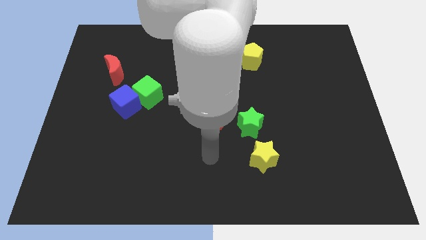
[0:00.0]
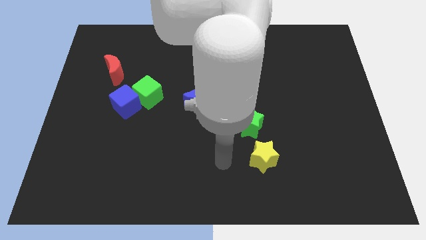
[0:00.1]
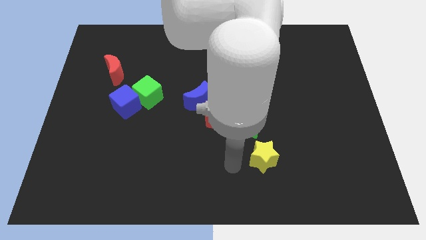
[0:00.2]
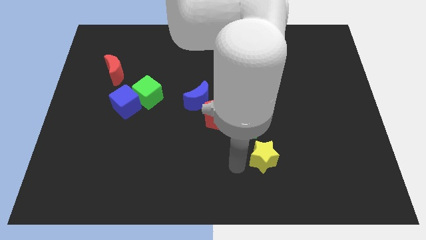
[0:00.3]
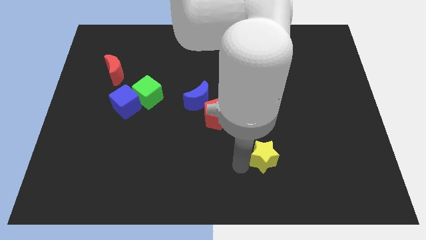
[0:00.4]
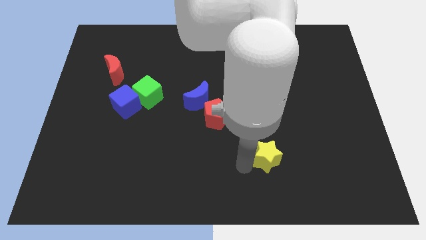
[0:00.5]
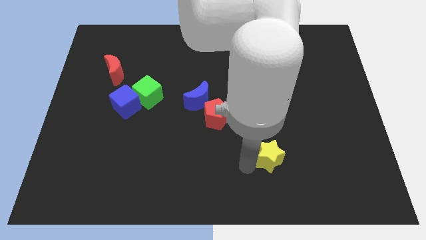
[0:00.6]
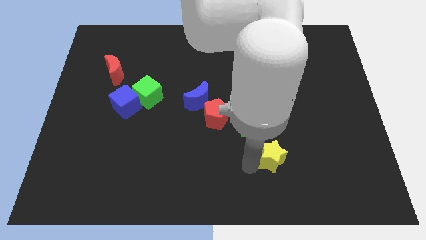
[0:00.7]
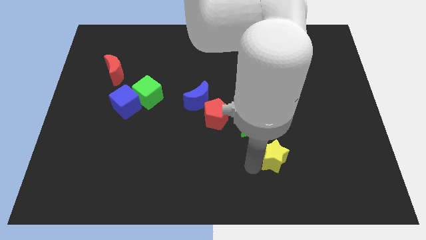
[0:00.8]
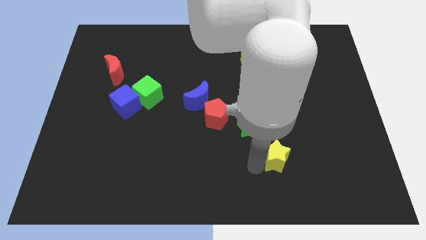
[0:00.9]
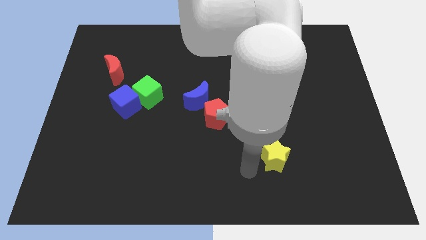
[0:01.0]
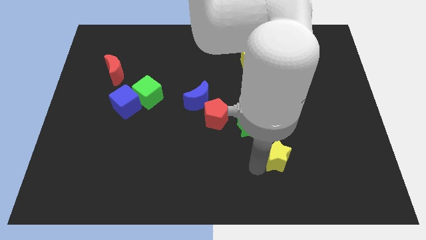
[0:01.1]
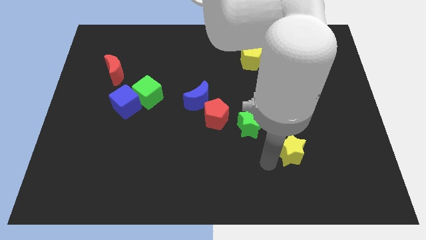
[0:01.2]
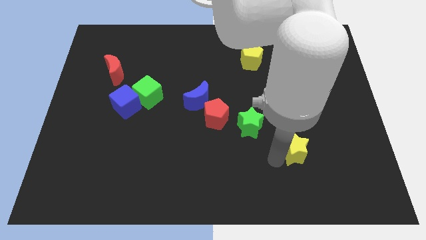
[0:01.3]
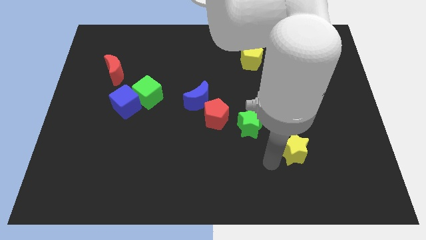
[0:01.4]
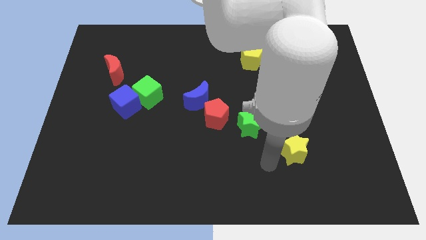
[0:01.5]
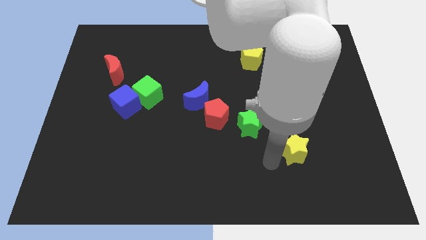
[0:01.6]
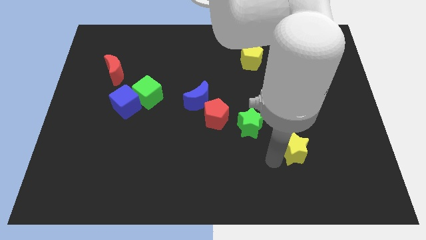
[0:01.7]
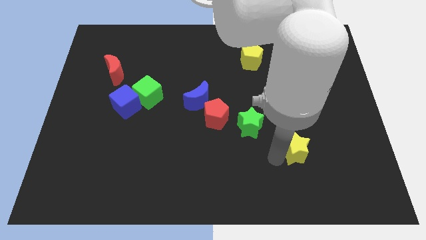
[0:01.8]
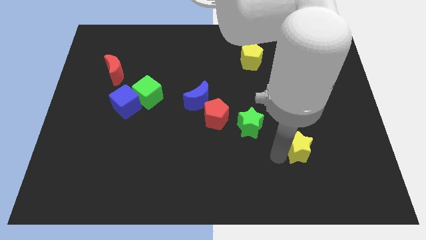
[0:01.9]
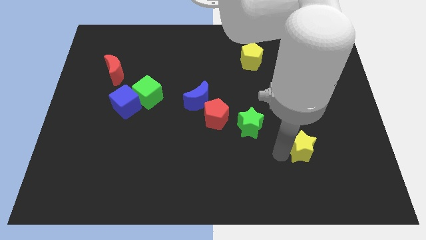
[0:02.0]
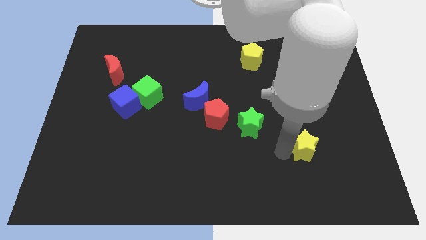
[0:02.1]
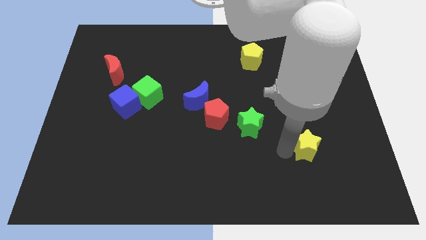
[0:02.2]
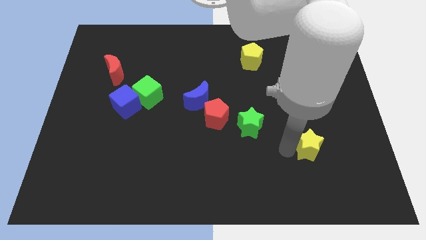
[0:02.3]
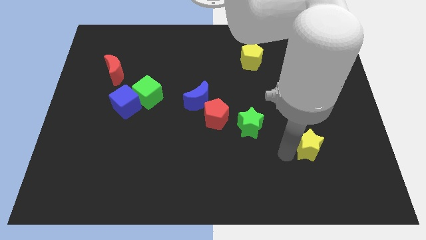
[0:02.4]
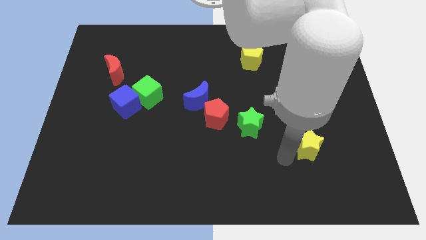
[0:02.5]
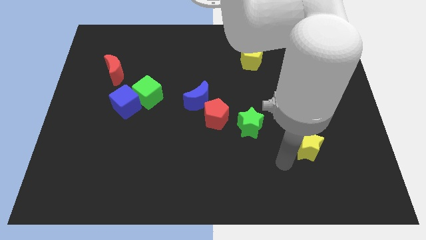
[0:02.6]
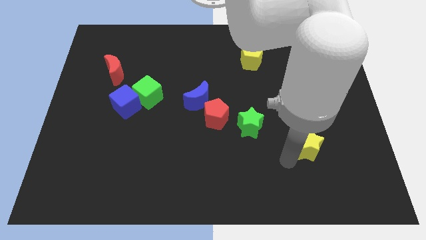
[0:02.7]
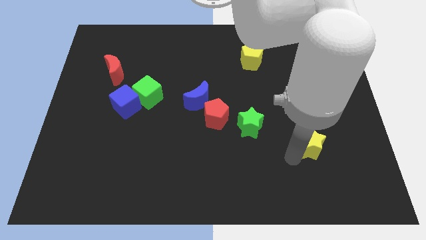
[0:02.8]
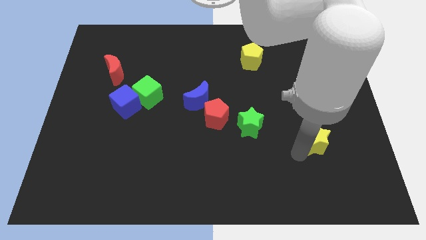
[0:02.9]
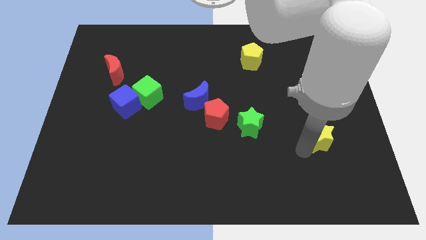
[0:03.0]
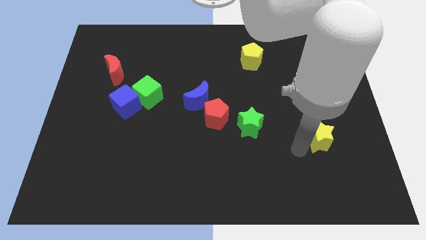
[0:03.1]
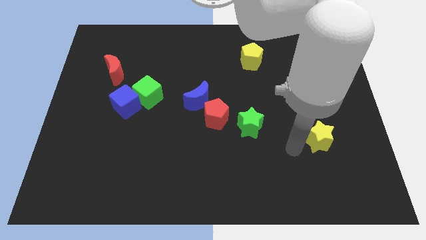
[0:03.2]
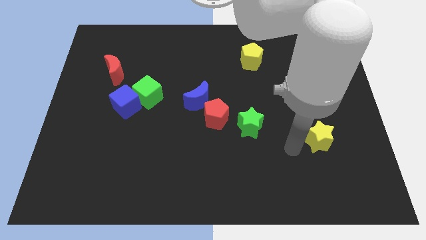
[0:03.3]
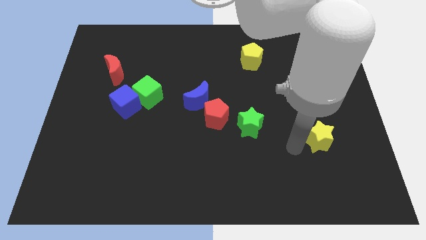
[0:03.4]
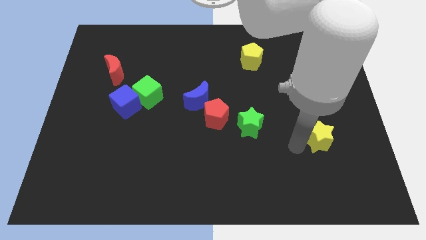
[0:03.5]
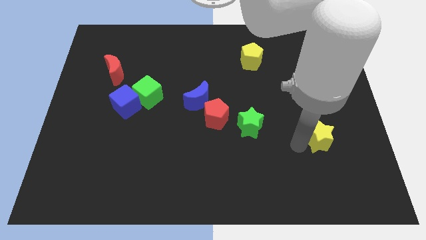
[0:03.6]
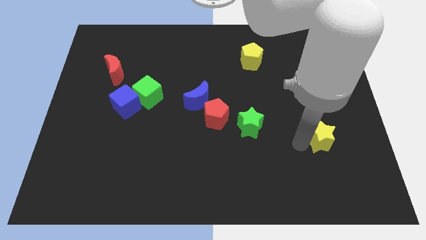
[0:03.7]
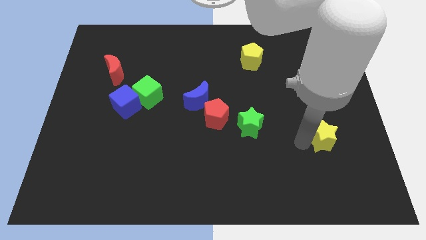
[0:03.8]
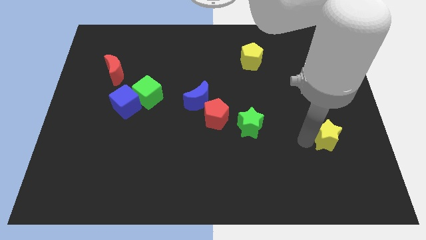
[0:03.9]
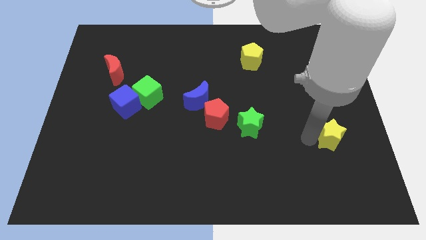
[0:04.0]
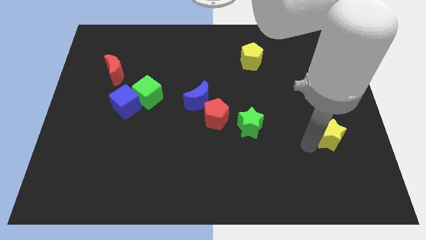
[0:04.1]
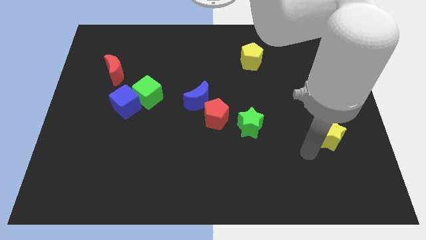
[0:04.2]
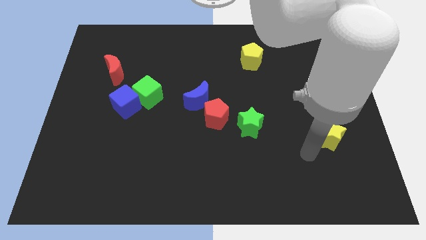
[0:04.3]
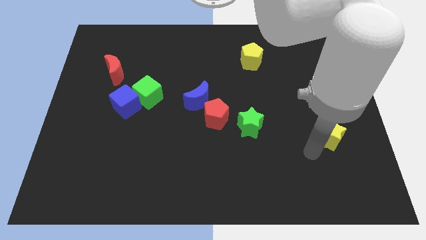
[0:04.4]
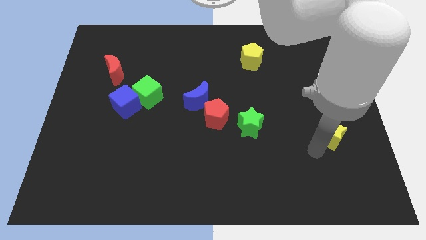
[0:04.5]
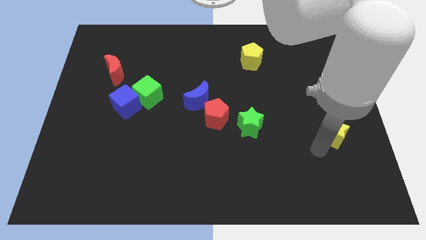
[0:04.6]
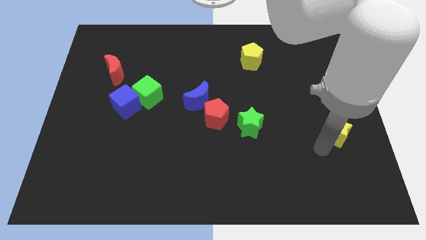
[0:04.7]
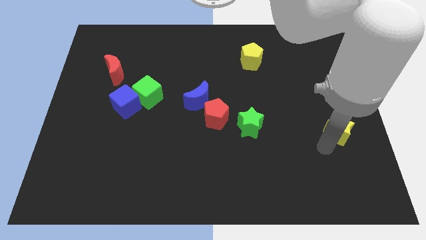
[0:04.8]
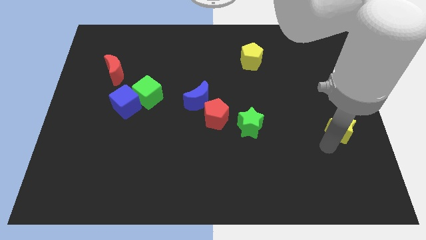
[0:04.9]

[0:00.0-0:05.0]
move the yellow star to the right side

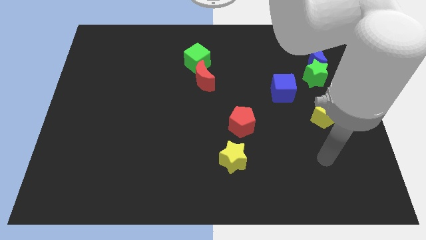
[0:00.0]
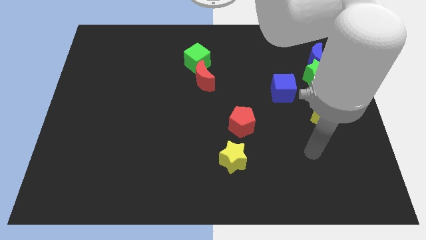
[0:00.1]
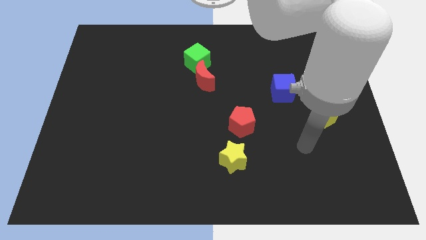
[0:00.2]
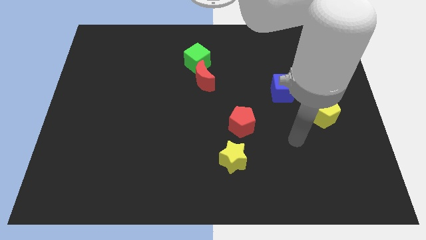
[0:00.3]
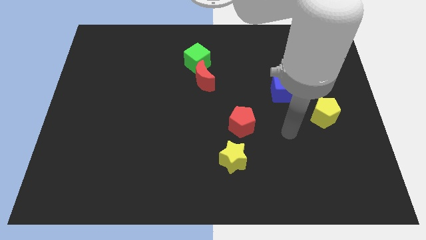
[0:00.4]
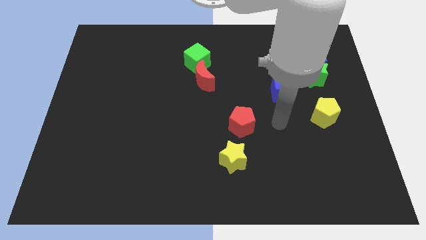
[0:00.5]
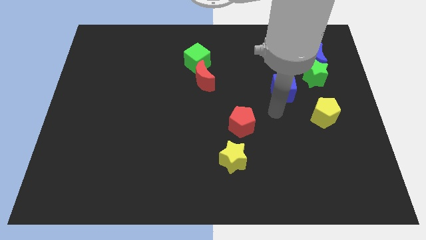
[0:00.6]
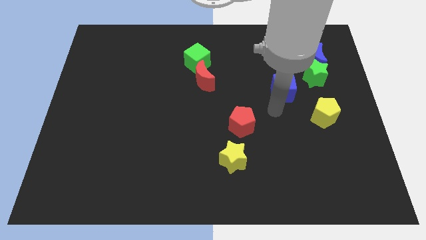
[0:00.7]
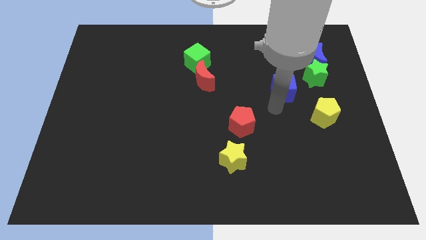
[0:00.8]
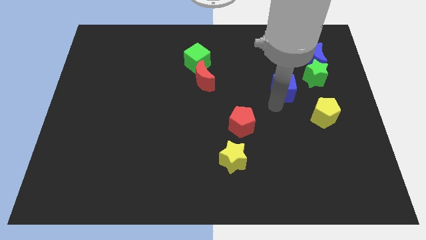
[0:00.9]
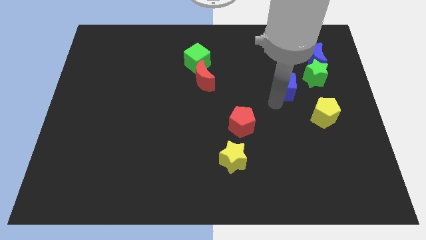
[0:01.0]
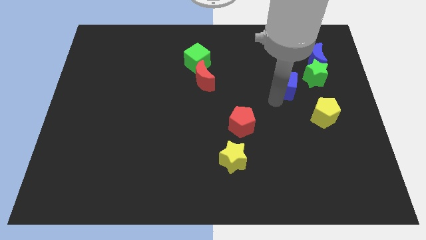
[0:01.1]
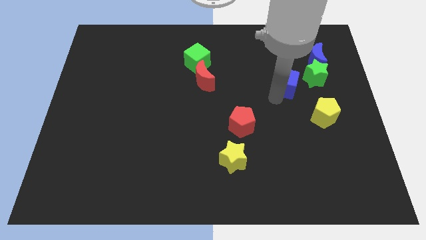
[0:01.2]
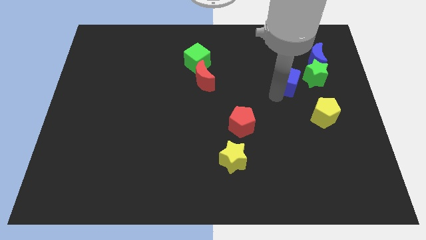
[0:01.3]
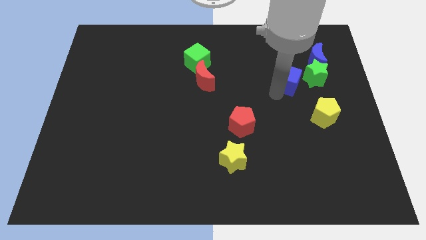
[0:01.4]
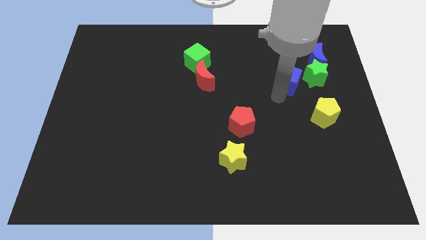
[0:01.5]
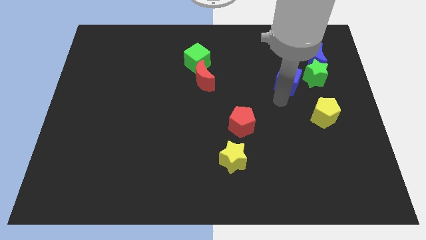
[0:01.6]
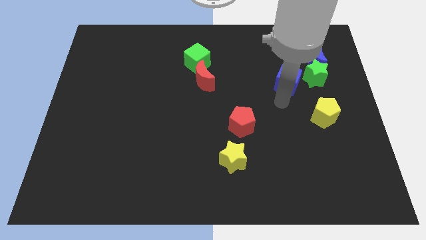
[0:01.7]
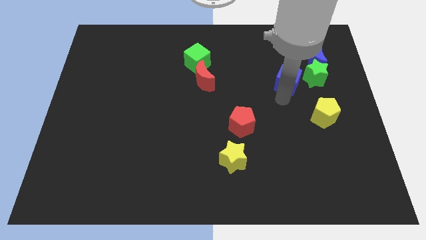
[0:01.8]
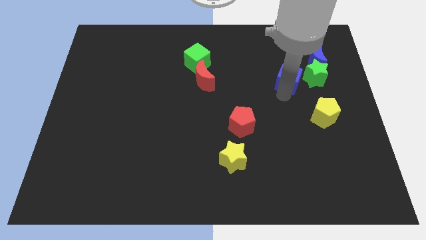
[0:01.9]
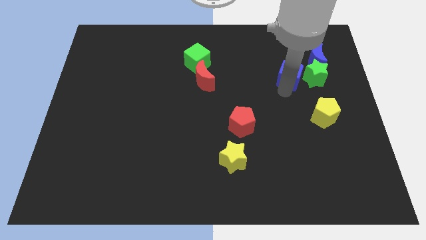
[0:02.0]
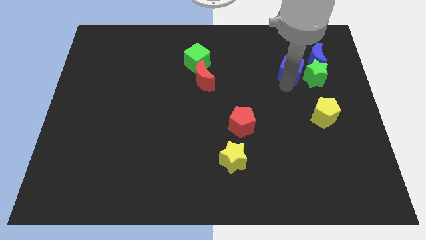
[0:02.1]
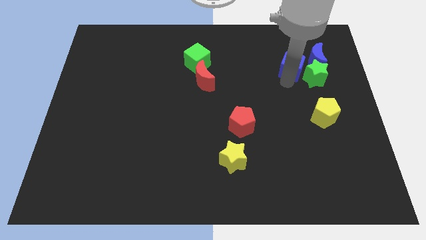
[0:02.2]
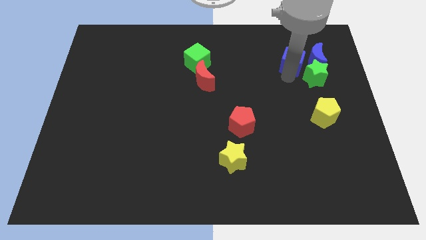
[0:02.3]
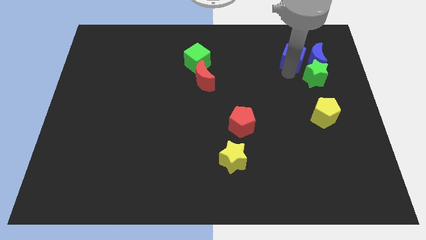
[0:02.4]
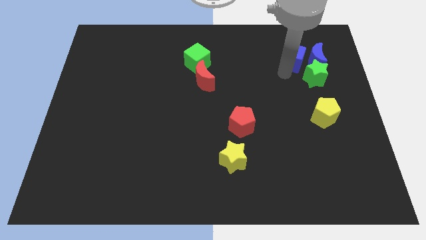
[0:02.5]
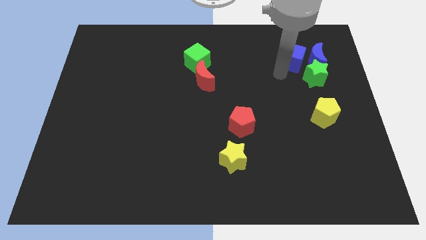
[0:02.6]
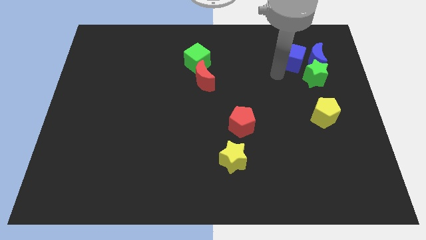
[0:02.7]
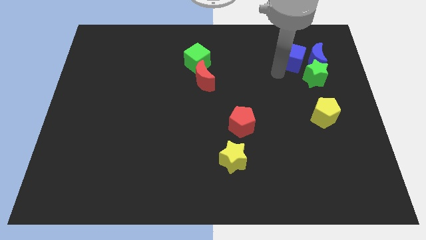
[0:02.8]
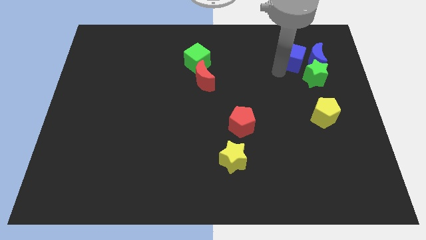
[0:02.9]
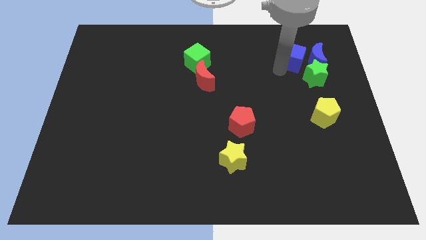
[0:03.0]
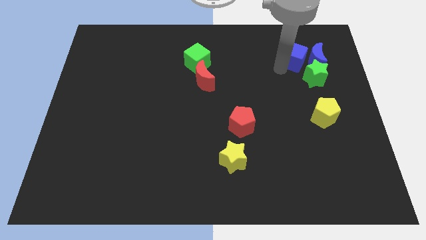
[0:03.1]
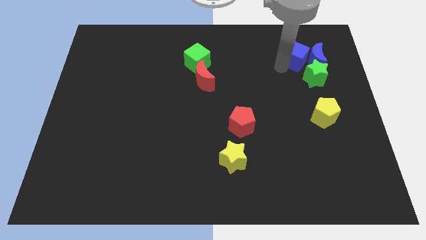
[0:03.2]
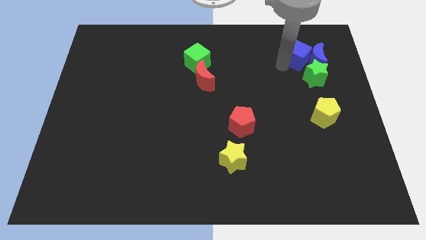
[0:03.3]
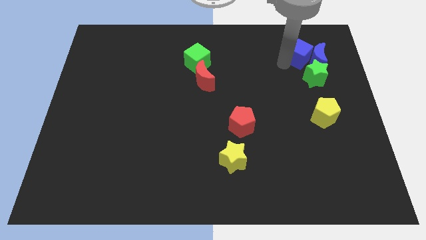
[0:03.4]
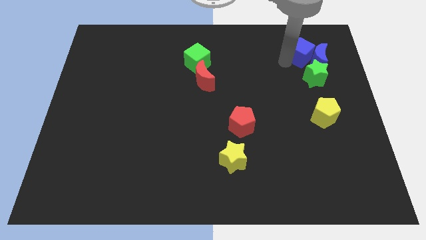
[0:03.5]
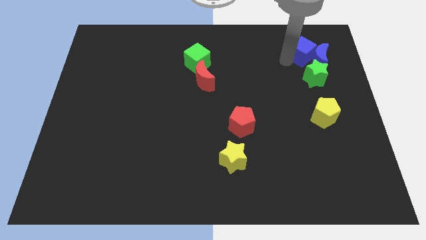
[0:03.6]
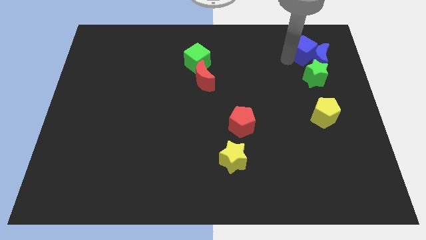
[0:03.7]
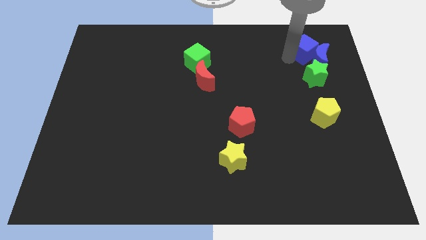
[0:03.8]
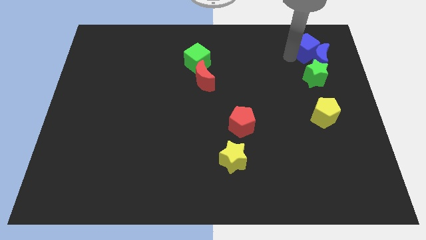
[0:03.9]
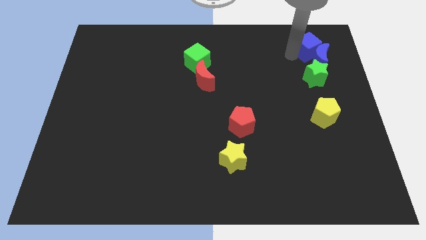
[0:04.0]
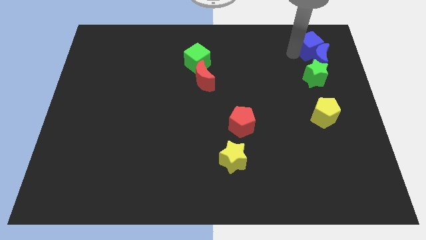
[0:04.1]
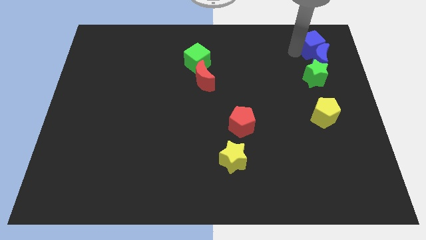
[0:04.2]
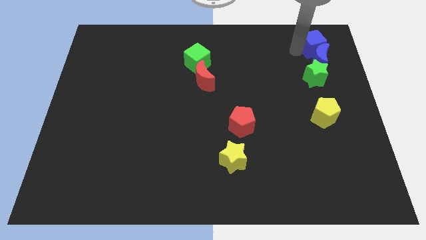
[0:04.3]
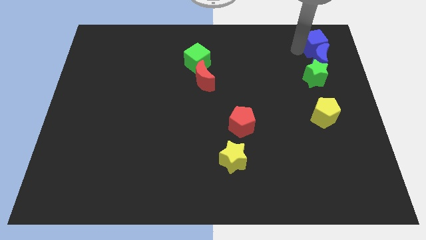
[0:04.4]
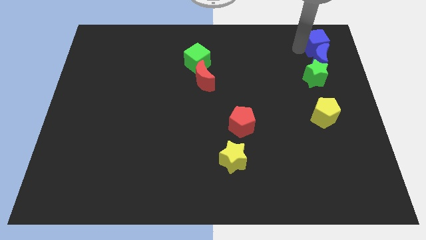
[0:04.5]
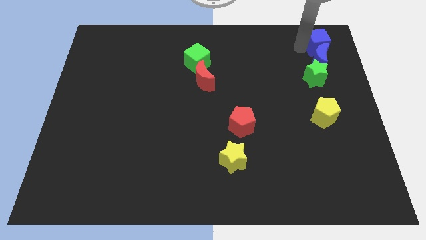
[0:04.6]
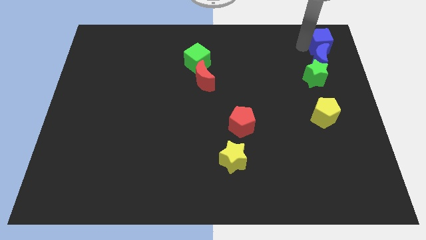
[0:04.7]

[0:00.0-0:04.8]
move the blue cube to the top right
